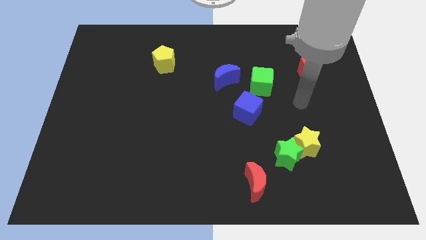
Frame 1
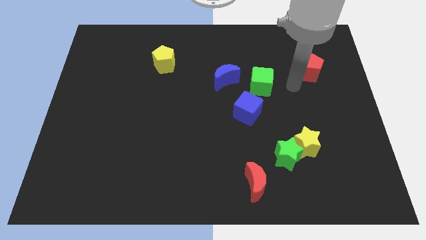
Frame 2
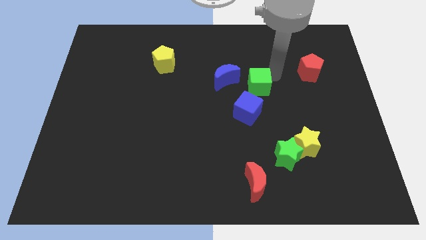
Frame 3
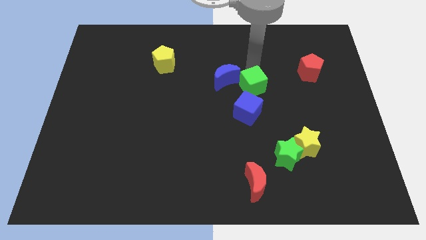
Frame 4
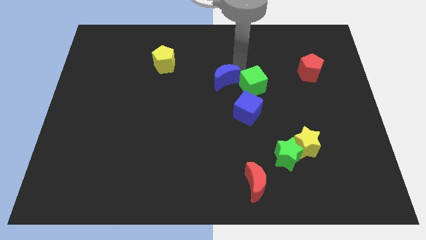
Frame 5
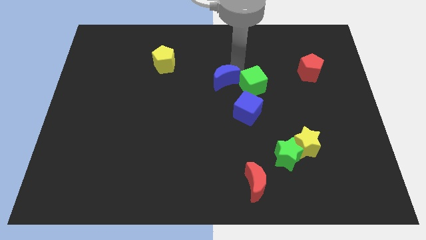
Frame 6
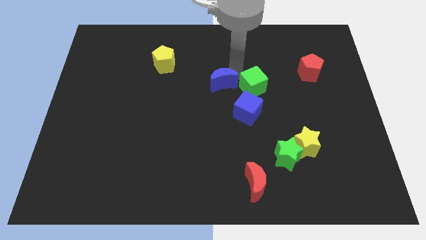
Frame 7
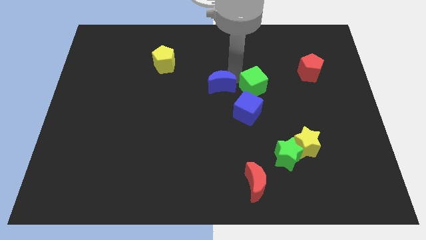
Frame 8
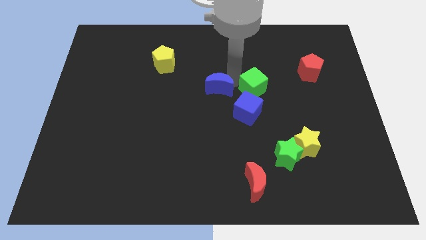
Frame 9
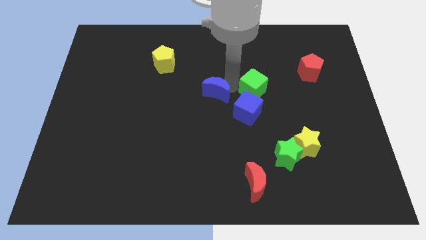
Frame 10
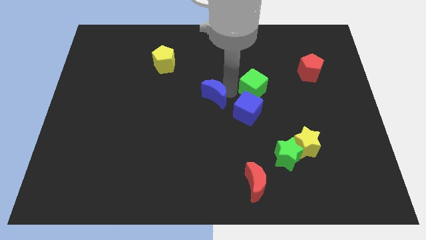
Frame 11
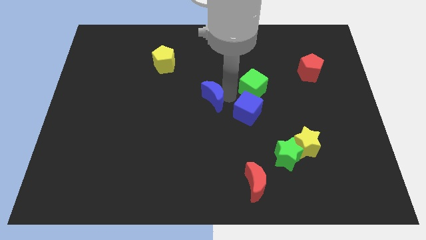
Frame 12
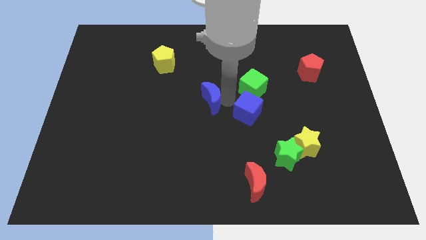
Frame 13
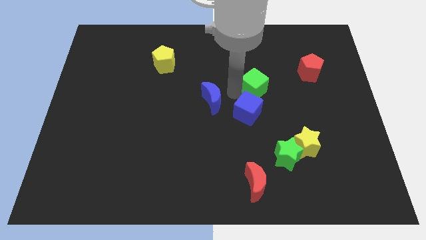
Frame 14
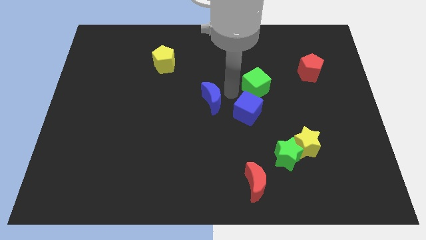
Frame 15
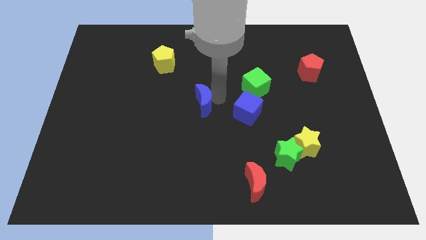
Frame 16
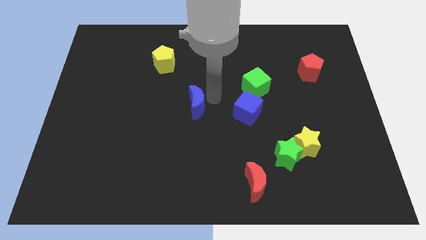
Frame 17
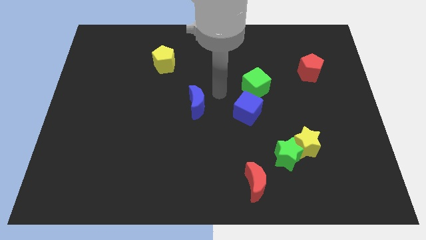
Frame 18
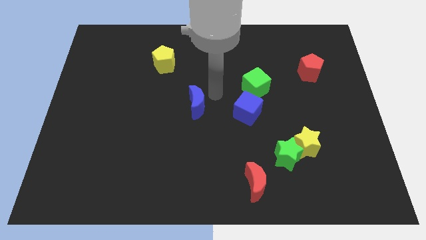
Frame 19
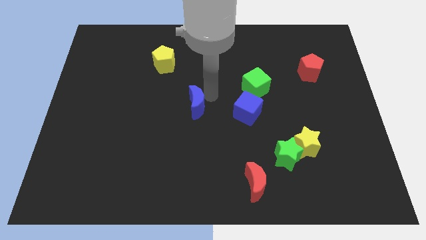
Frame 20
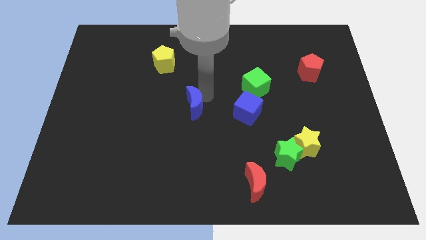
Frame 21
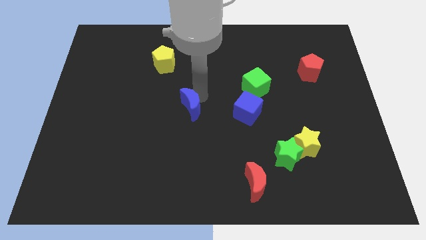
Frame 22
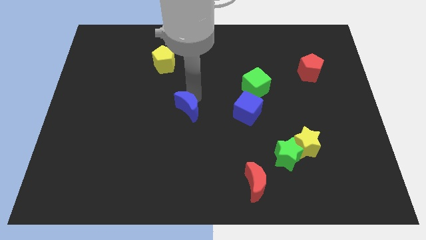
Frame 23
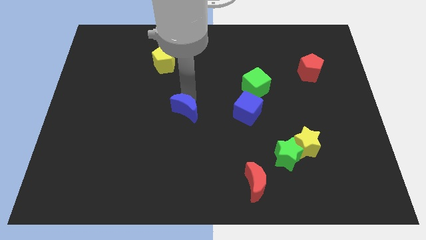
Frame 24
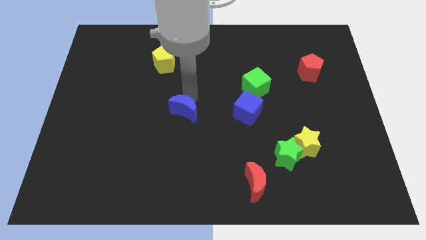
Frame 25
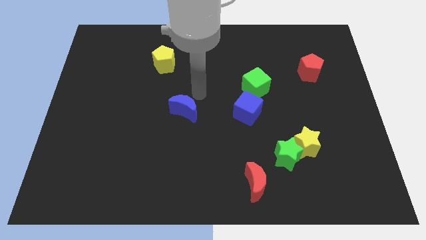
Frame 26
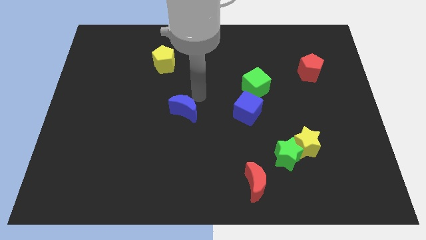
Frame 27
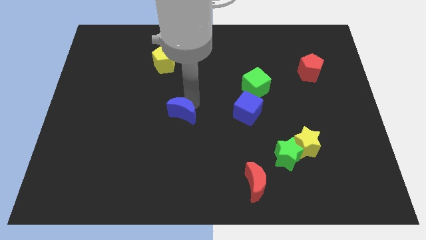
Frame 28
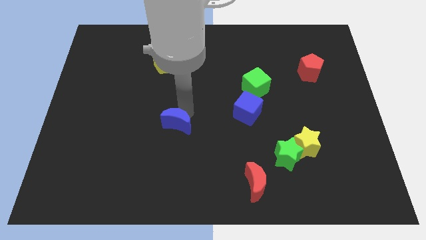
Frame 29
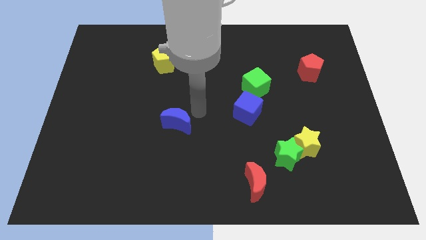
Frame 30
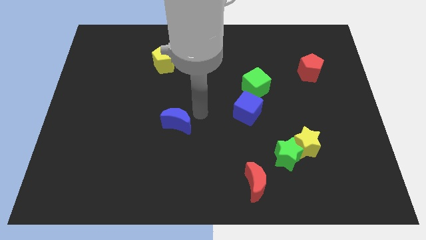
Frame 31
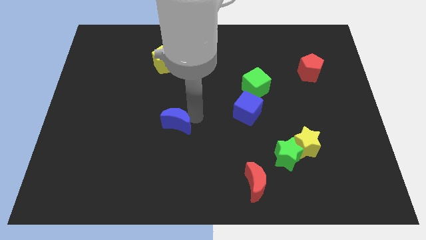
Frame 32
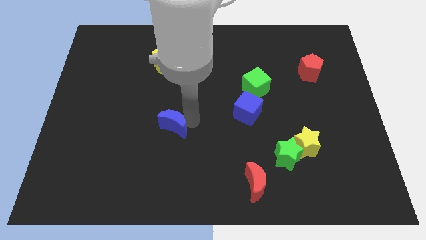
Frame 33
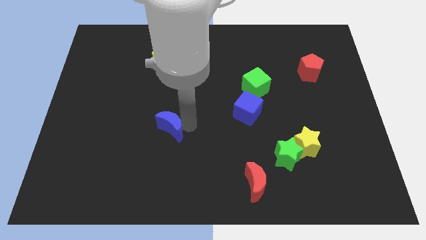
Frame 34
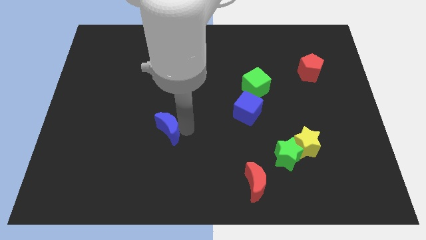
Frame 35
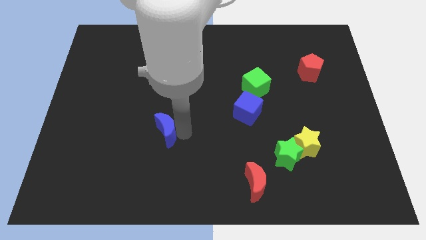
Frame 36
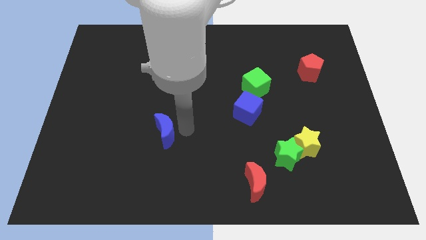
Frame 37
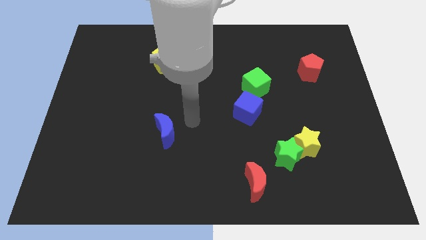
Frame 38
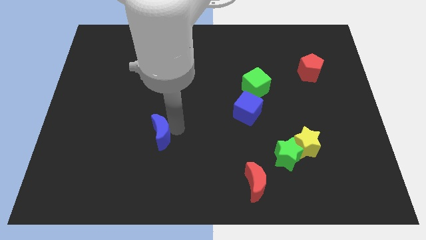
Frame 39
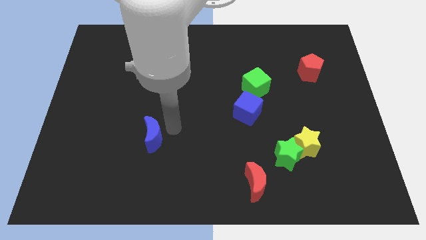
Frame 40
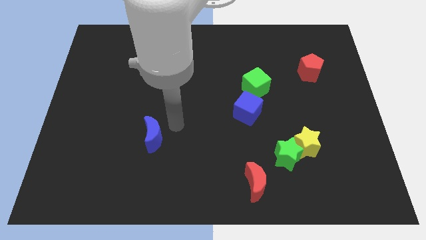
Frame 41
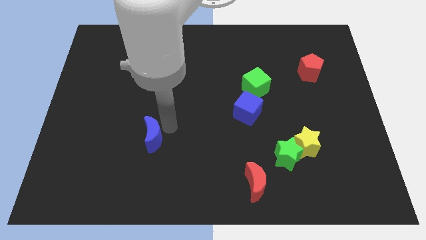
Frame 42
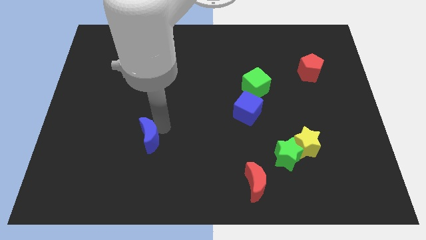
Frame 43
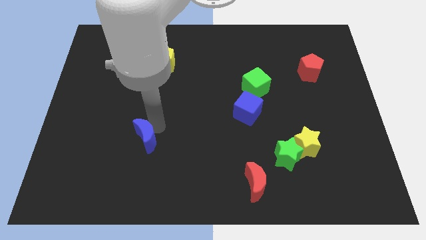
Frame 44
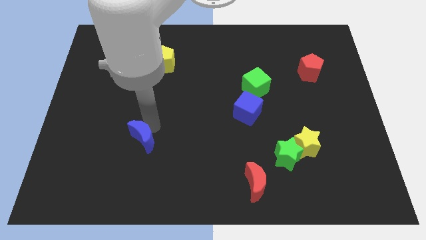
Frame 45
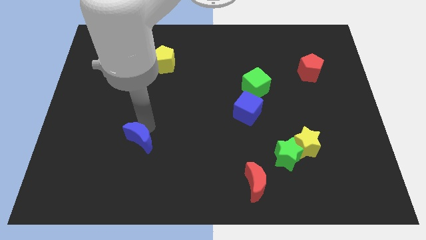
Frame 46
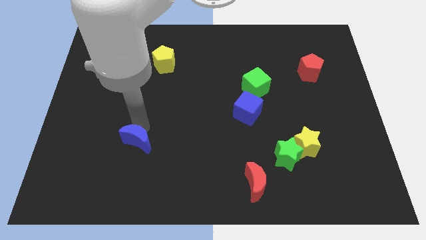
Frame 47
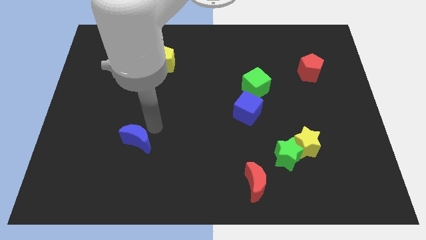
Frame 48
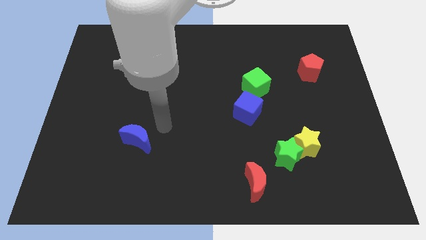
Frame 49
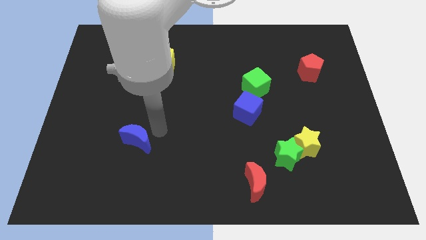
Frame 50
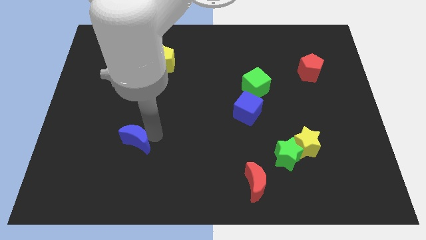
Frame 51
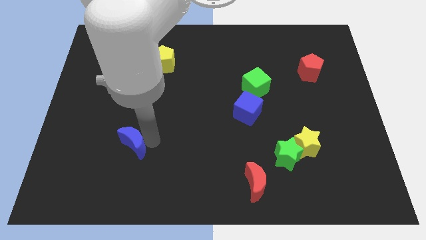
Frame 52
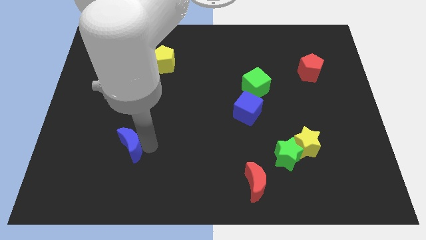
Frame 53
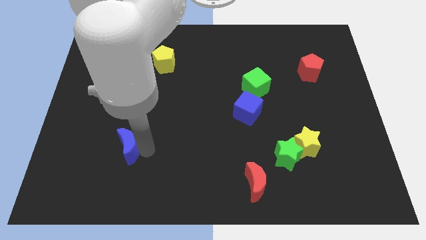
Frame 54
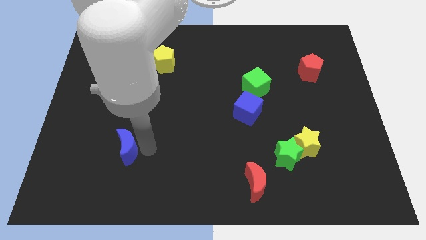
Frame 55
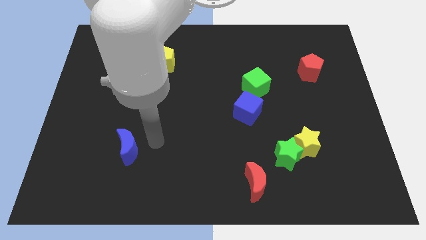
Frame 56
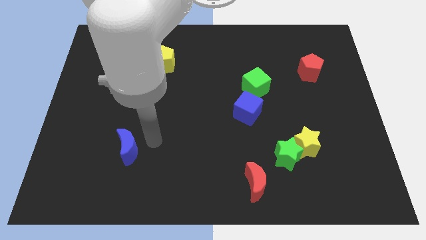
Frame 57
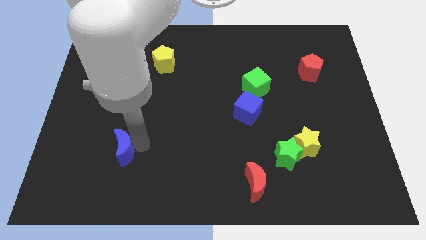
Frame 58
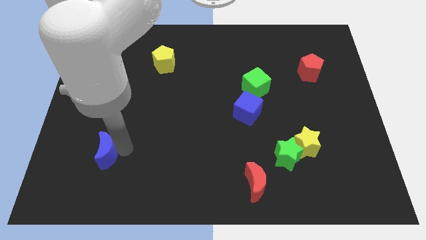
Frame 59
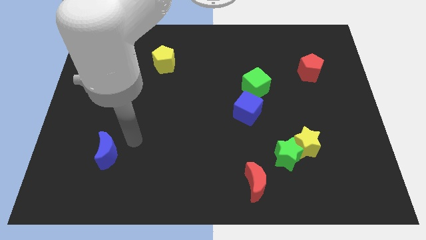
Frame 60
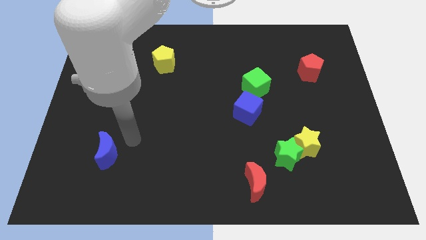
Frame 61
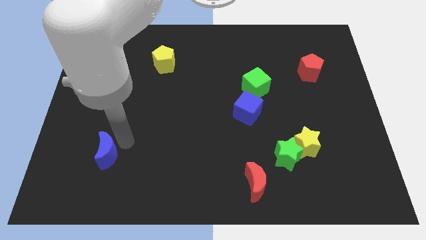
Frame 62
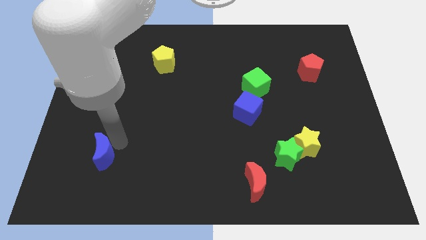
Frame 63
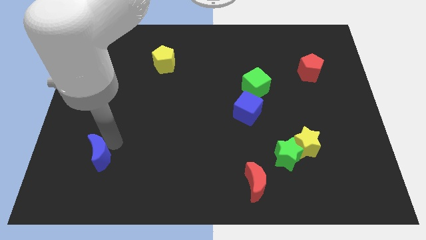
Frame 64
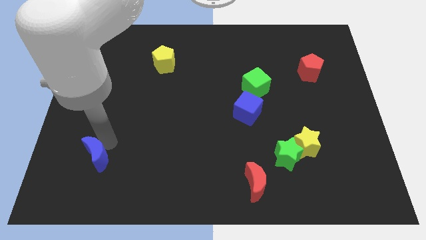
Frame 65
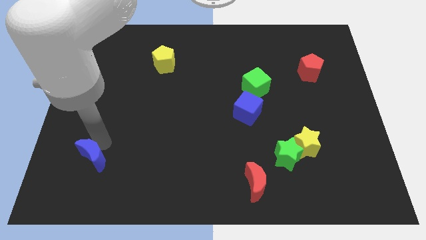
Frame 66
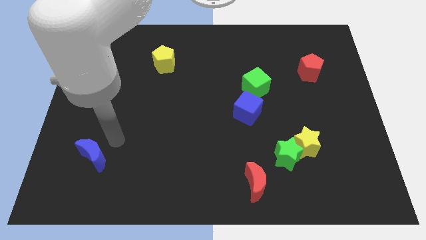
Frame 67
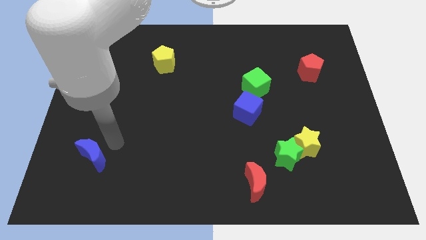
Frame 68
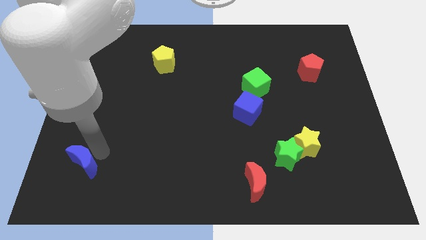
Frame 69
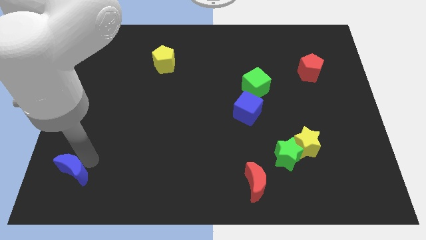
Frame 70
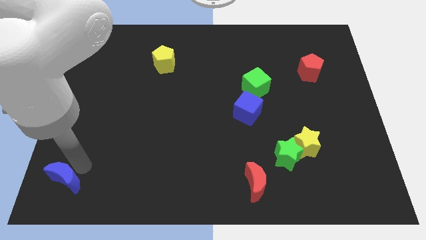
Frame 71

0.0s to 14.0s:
push the blue moon to the lower left corner
